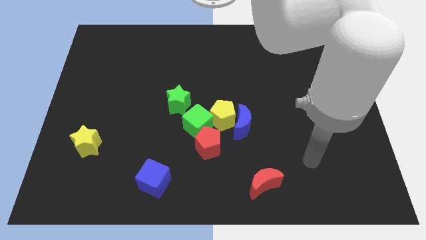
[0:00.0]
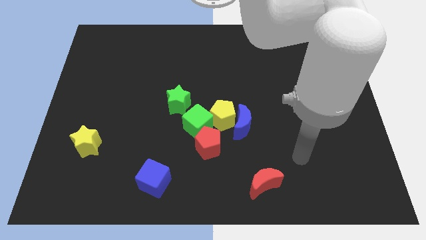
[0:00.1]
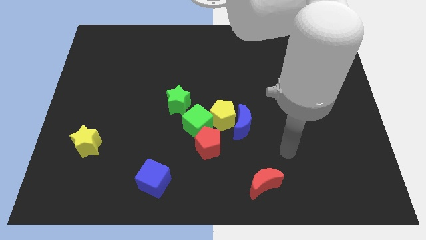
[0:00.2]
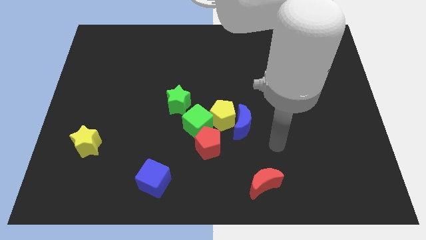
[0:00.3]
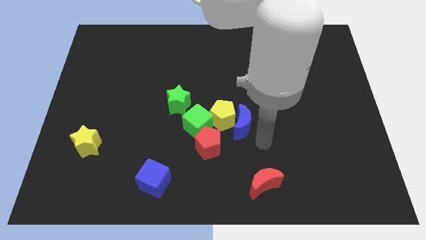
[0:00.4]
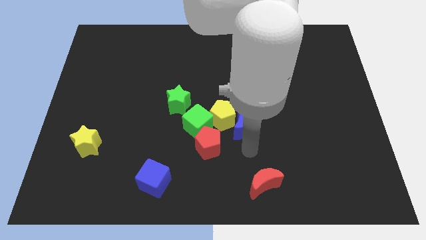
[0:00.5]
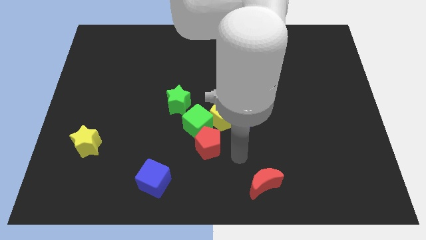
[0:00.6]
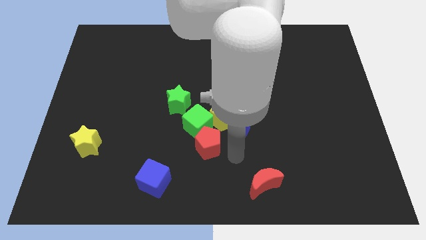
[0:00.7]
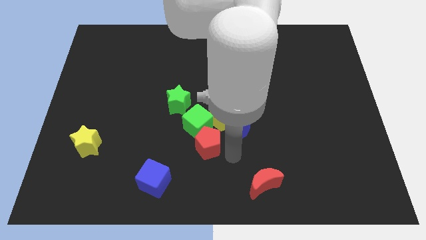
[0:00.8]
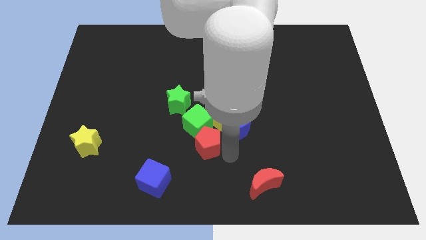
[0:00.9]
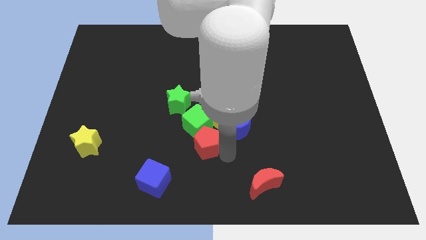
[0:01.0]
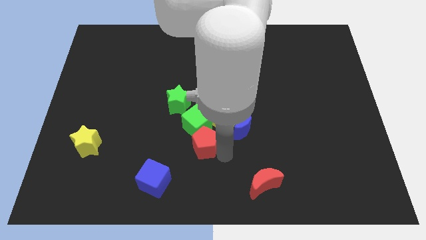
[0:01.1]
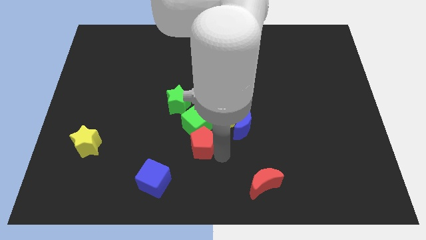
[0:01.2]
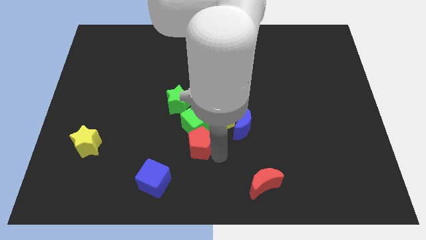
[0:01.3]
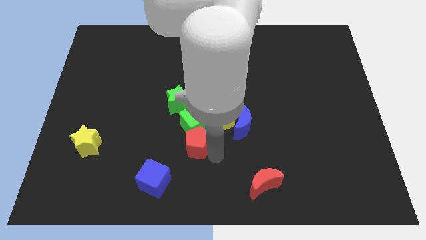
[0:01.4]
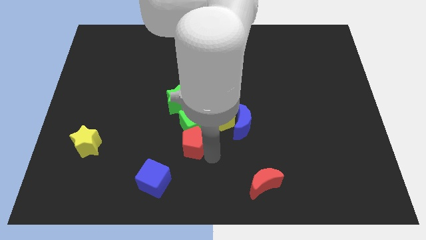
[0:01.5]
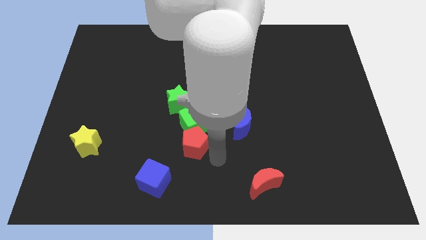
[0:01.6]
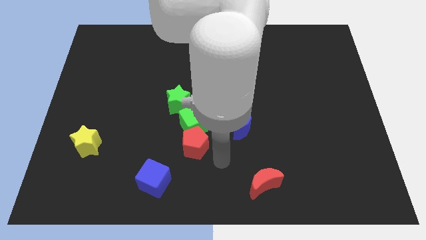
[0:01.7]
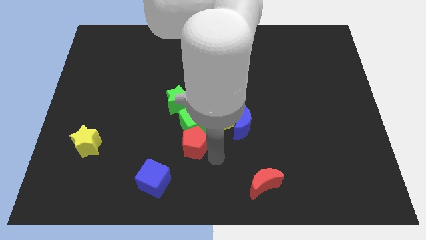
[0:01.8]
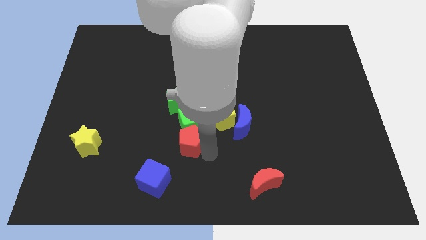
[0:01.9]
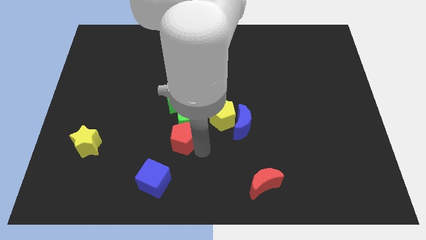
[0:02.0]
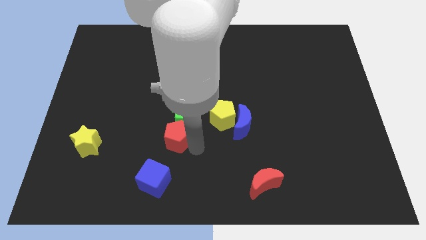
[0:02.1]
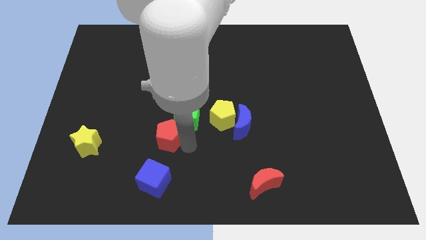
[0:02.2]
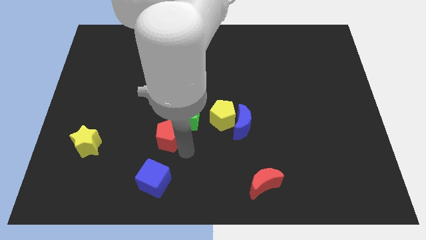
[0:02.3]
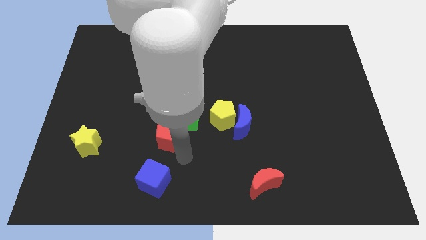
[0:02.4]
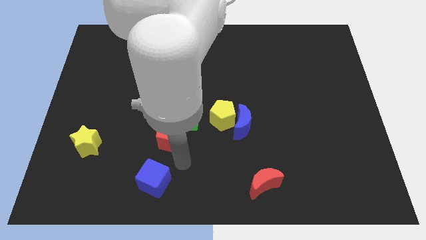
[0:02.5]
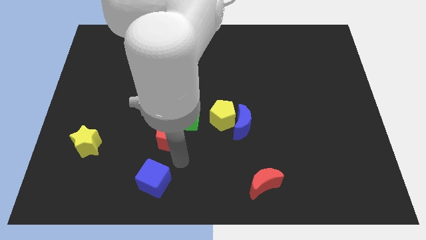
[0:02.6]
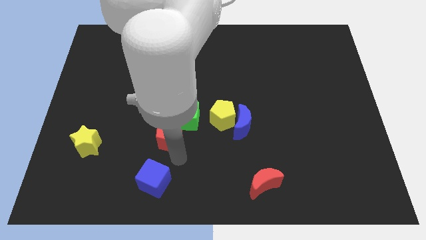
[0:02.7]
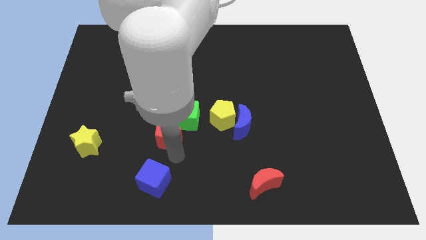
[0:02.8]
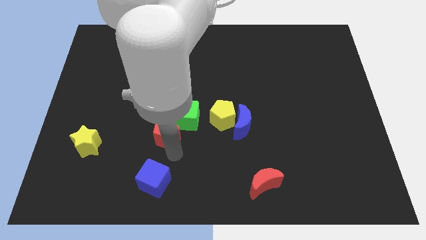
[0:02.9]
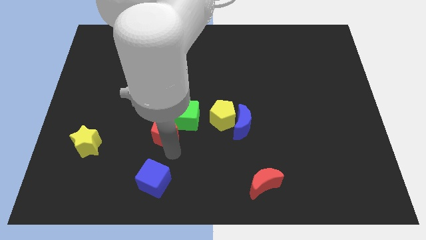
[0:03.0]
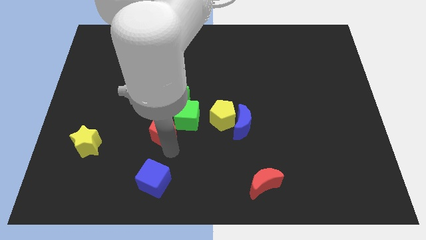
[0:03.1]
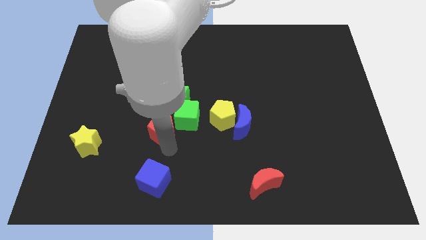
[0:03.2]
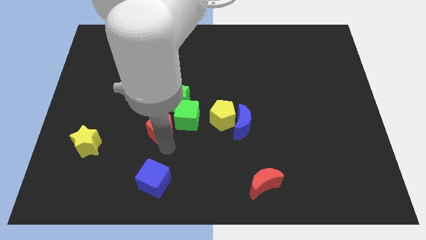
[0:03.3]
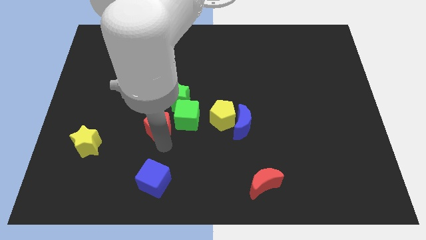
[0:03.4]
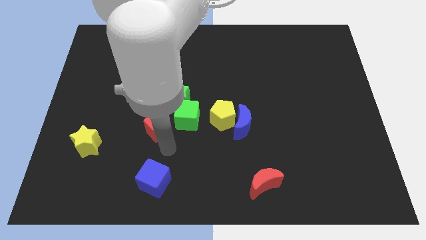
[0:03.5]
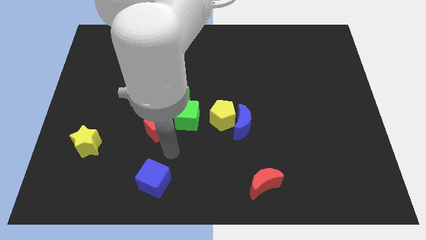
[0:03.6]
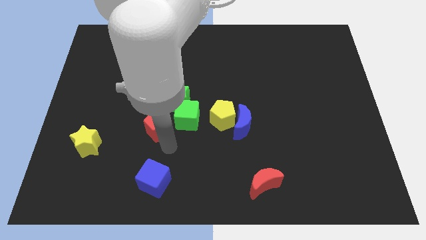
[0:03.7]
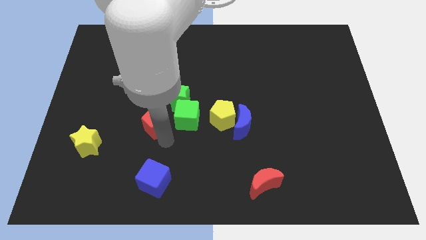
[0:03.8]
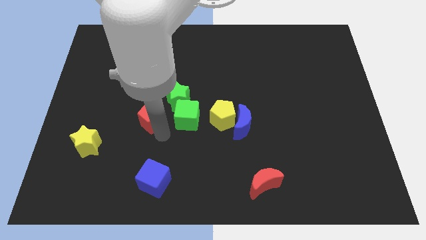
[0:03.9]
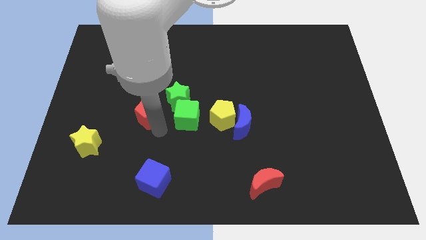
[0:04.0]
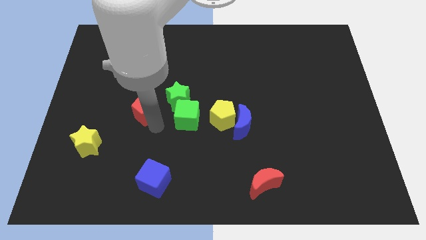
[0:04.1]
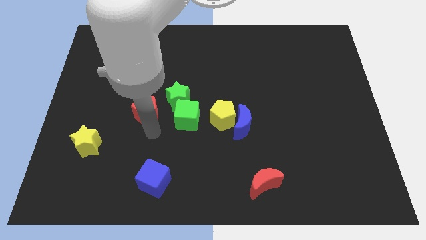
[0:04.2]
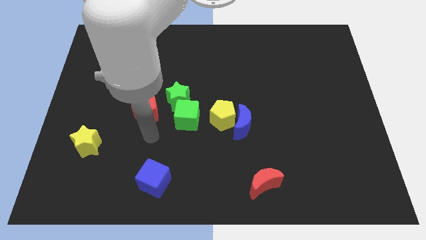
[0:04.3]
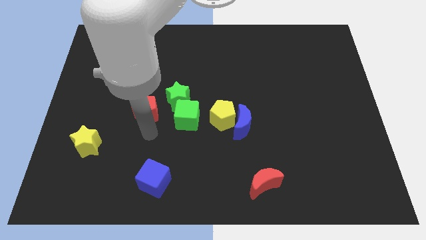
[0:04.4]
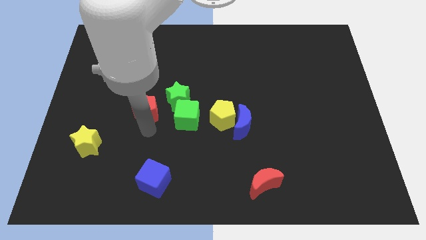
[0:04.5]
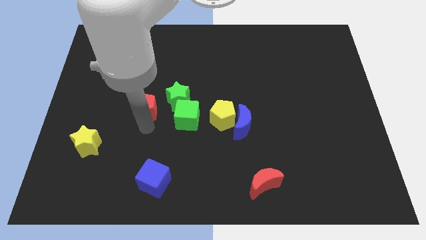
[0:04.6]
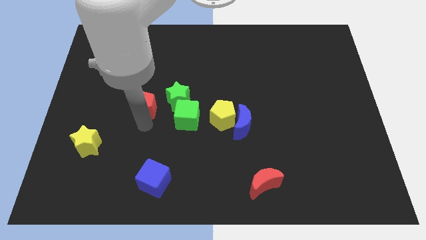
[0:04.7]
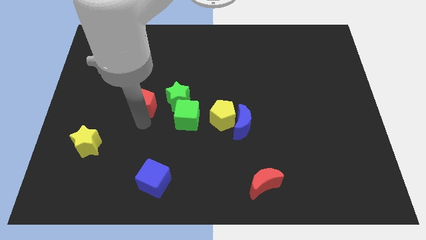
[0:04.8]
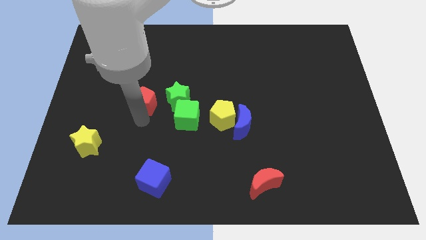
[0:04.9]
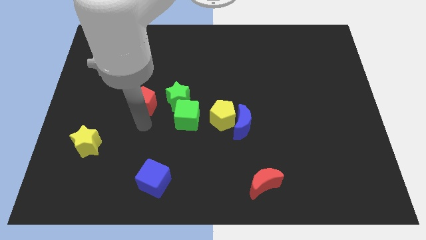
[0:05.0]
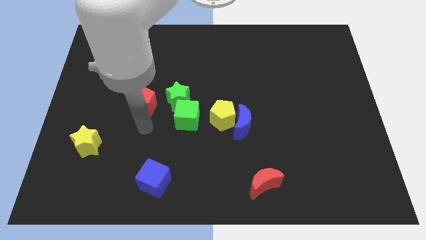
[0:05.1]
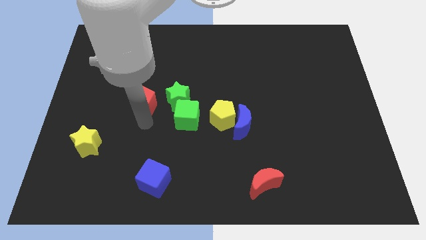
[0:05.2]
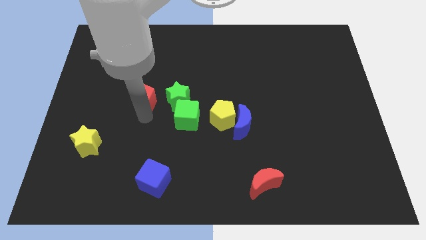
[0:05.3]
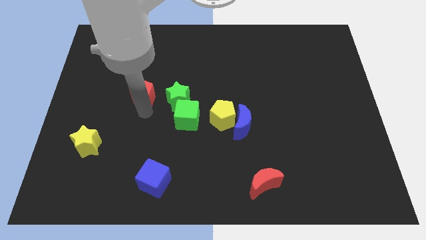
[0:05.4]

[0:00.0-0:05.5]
slide the red pentagon diagonally up and to the left

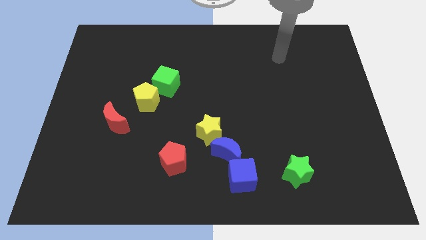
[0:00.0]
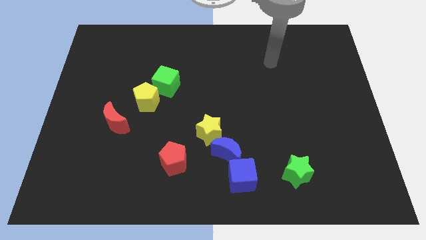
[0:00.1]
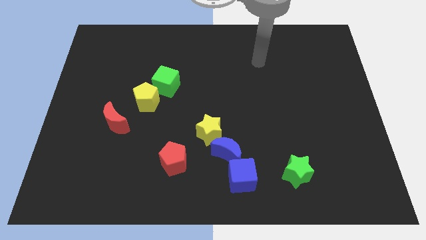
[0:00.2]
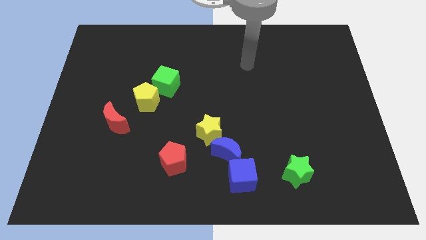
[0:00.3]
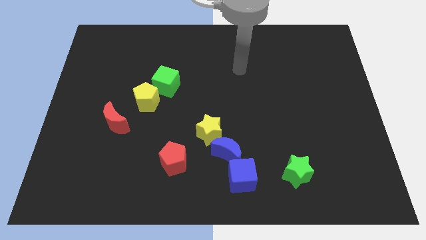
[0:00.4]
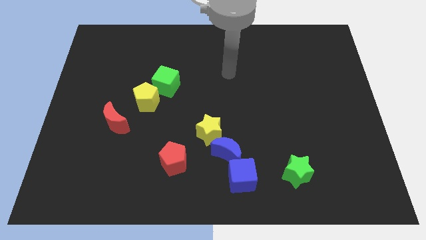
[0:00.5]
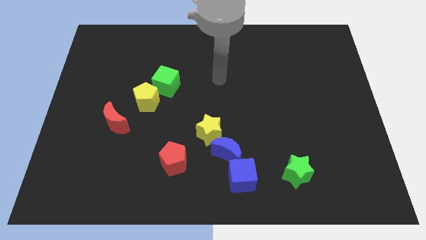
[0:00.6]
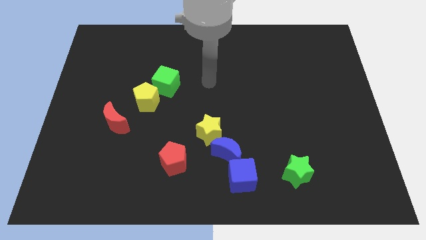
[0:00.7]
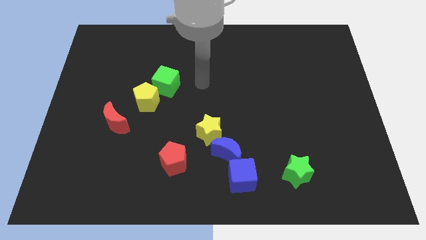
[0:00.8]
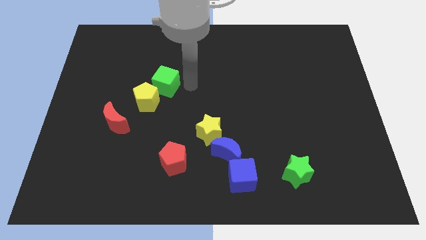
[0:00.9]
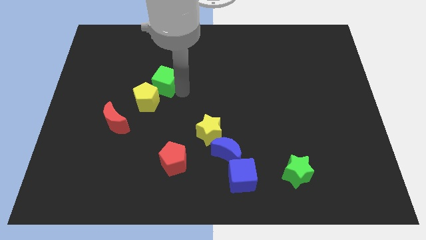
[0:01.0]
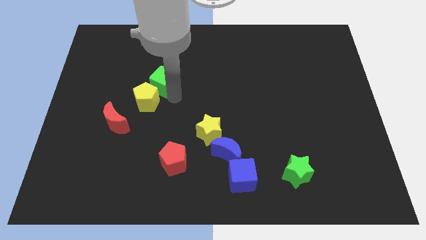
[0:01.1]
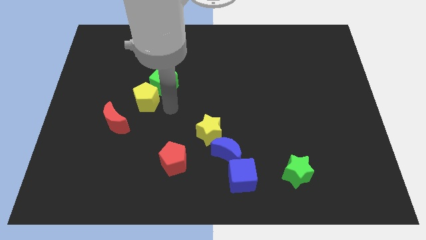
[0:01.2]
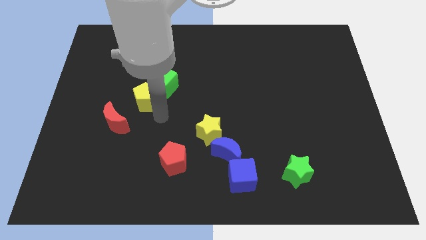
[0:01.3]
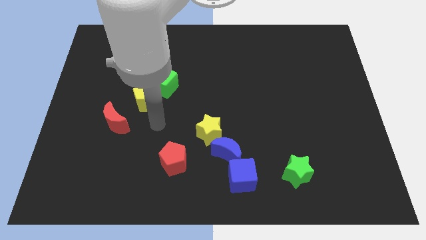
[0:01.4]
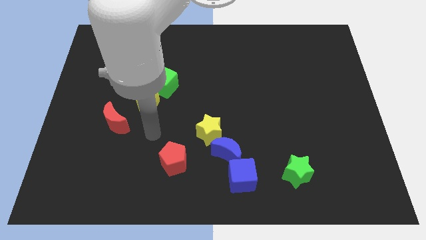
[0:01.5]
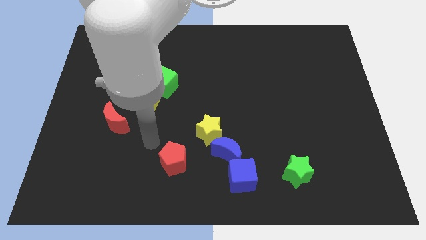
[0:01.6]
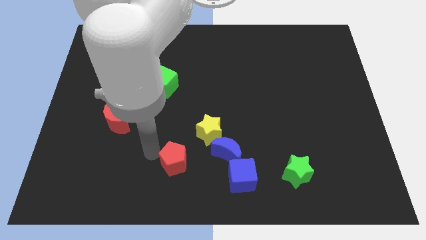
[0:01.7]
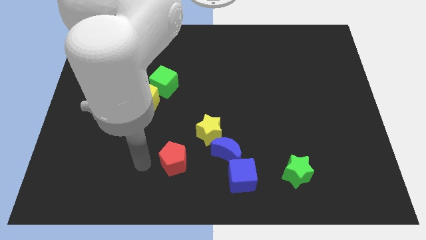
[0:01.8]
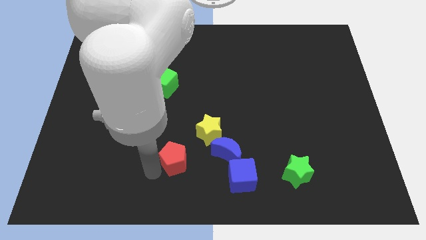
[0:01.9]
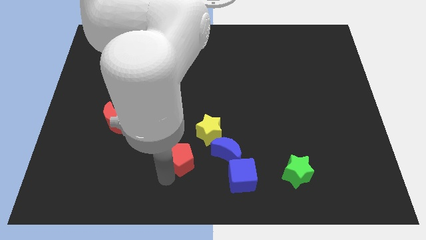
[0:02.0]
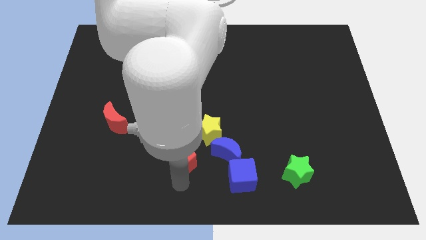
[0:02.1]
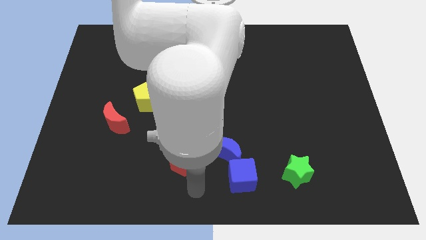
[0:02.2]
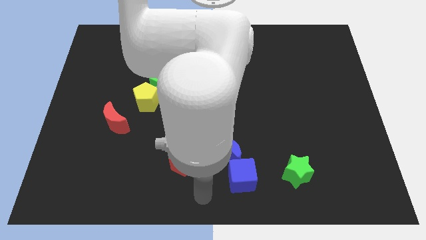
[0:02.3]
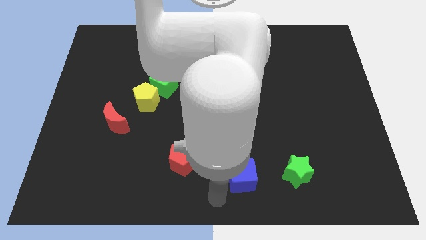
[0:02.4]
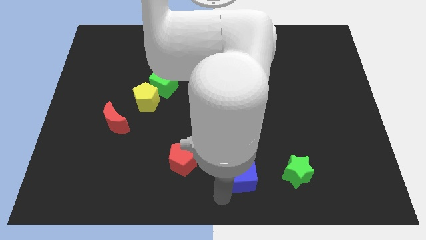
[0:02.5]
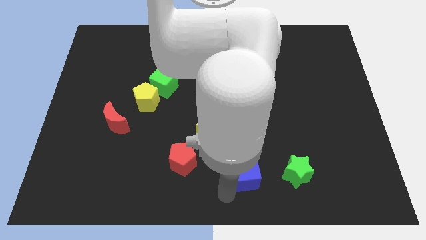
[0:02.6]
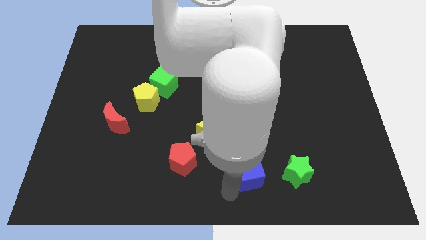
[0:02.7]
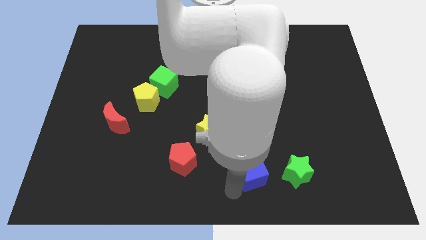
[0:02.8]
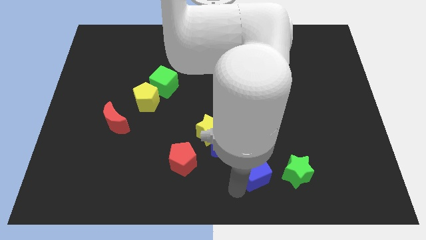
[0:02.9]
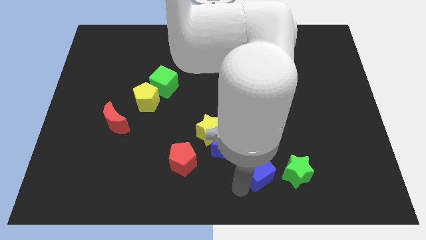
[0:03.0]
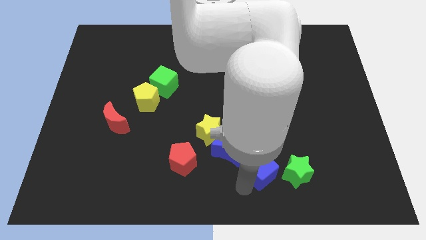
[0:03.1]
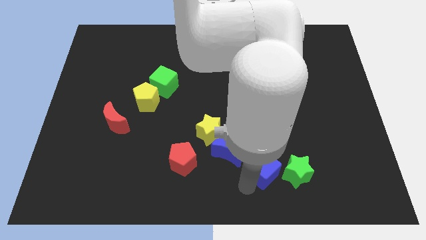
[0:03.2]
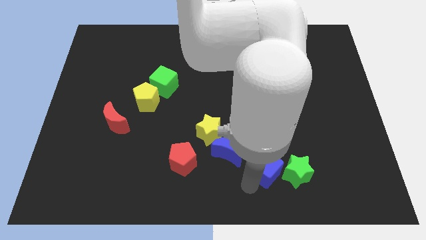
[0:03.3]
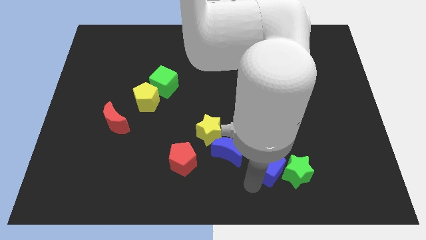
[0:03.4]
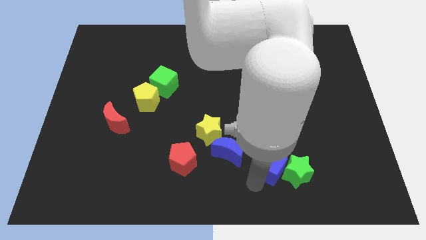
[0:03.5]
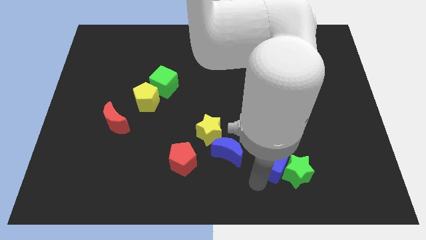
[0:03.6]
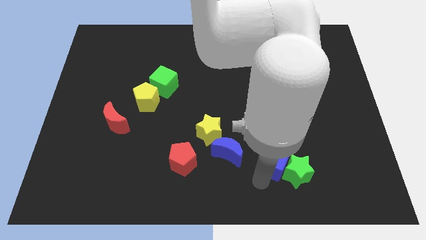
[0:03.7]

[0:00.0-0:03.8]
move the blue cube up and right diagonally a little bit
